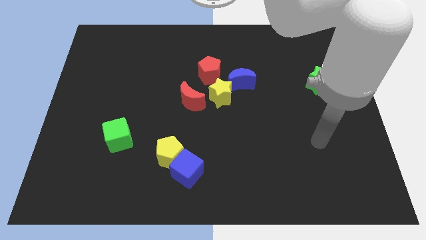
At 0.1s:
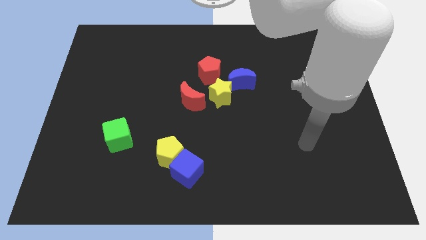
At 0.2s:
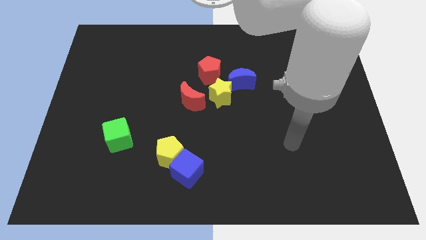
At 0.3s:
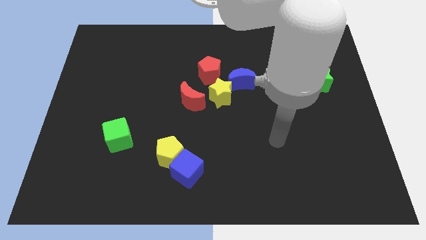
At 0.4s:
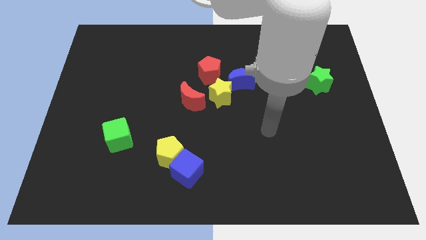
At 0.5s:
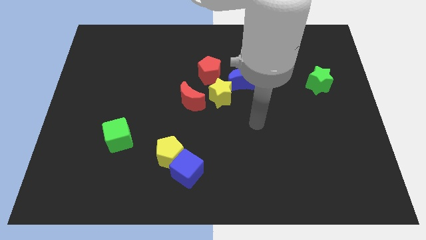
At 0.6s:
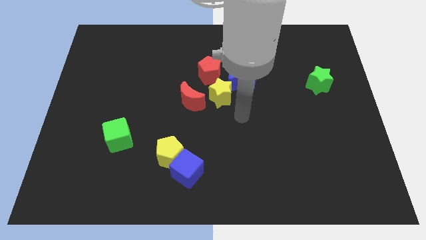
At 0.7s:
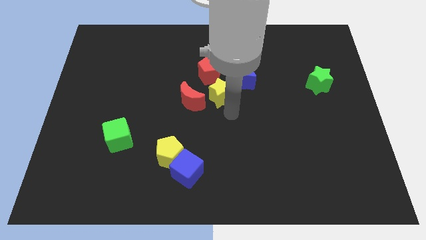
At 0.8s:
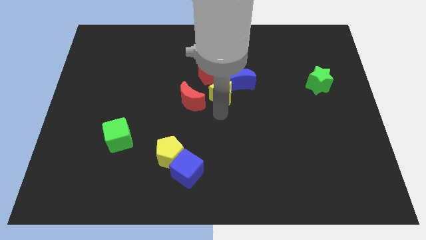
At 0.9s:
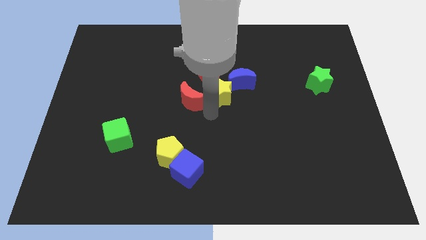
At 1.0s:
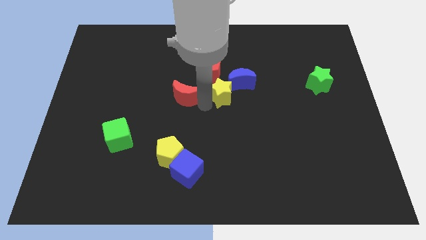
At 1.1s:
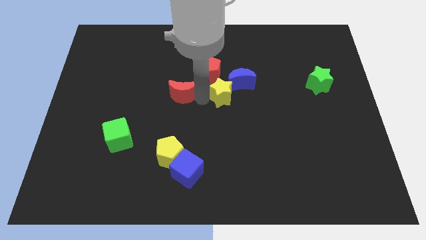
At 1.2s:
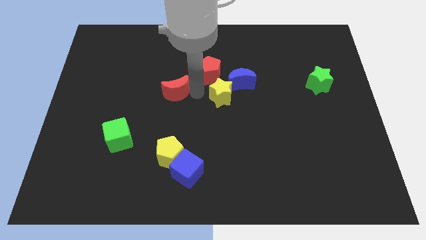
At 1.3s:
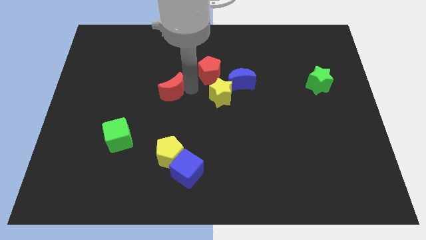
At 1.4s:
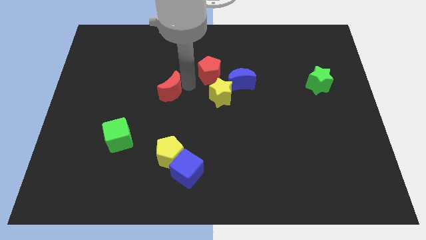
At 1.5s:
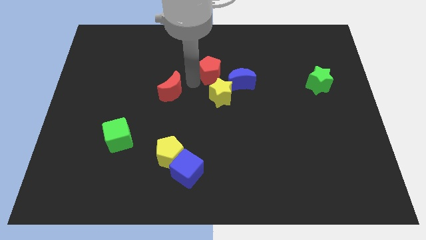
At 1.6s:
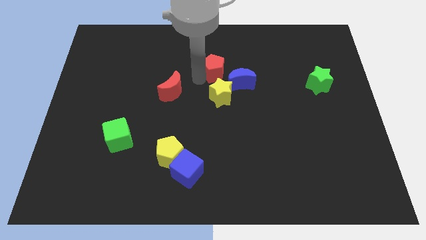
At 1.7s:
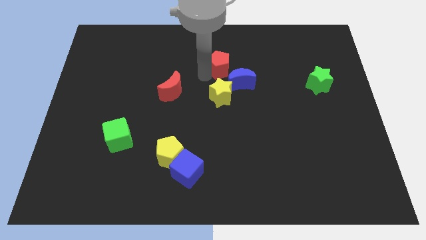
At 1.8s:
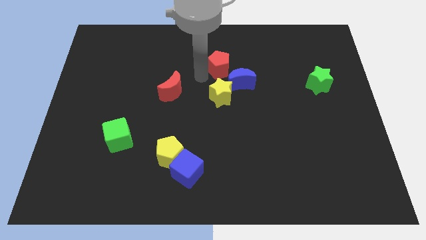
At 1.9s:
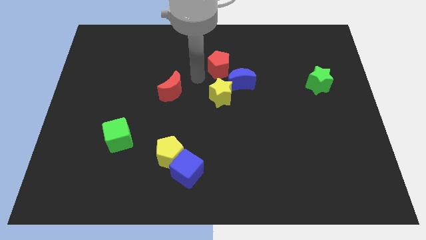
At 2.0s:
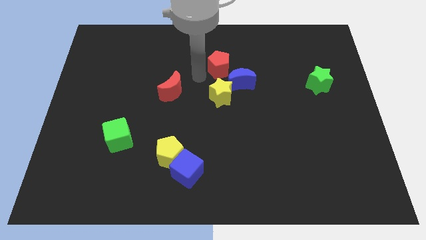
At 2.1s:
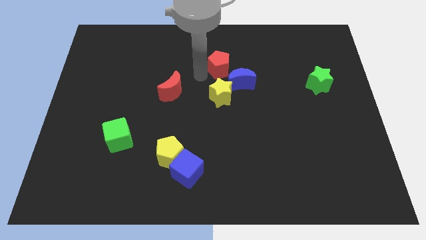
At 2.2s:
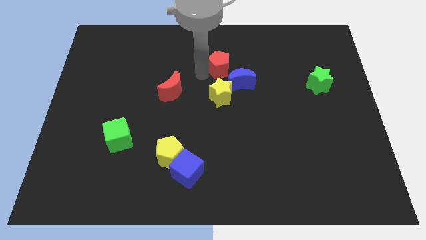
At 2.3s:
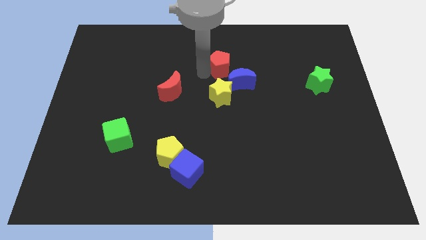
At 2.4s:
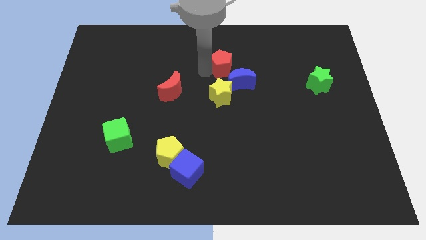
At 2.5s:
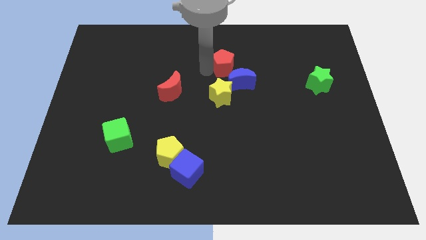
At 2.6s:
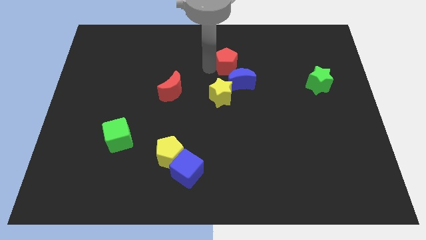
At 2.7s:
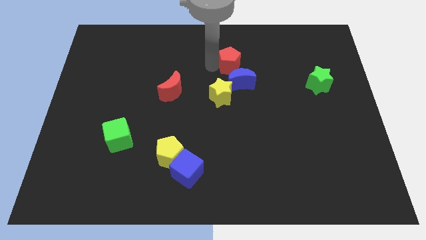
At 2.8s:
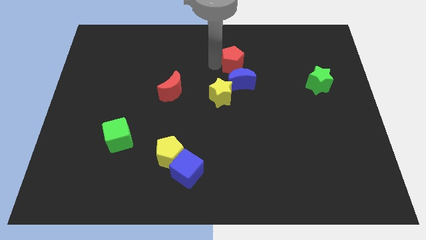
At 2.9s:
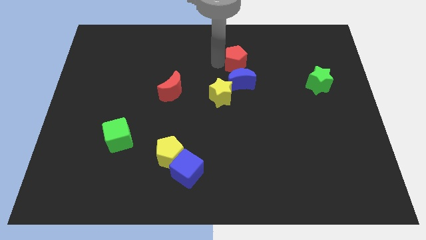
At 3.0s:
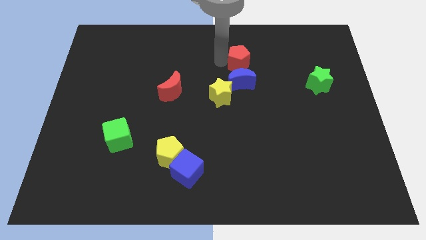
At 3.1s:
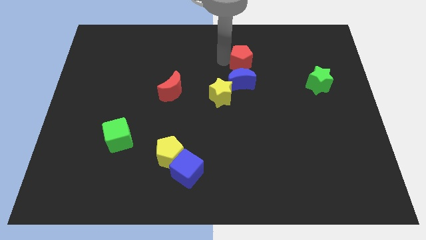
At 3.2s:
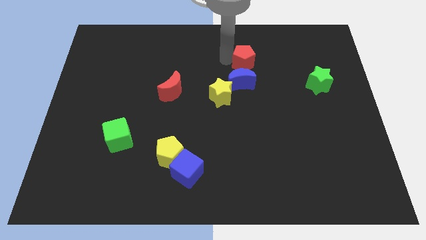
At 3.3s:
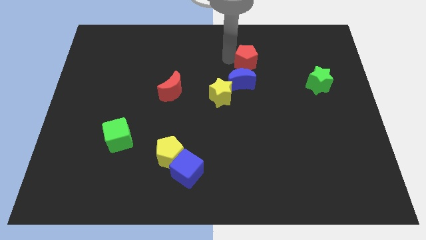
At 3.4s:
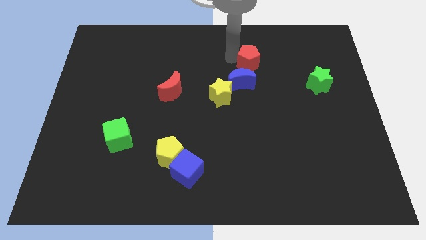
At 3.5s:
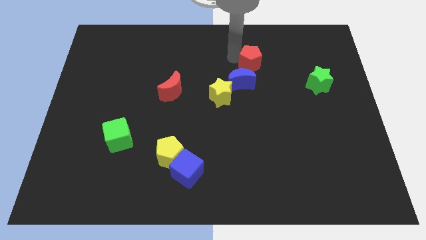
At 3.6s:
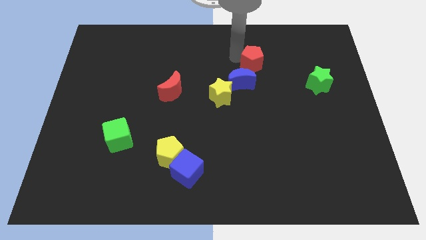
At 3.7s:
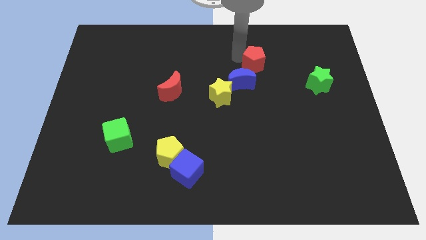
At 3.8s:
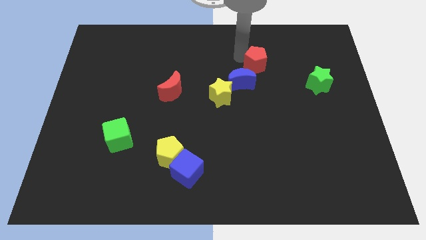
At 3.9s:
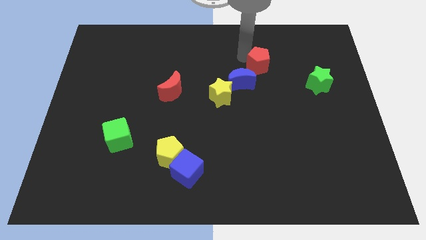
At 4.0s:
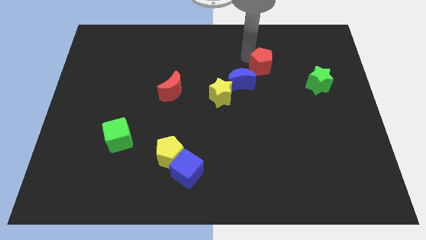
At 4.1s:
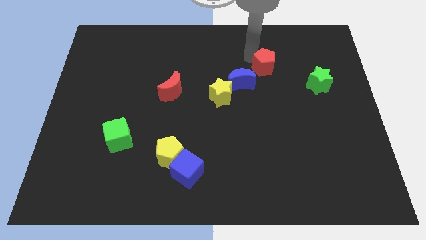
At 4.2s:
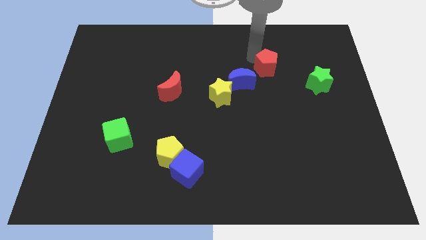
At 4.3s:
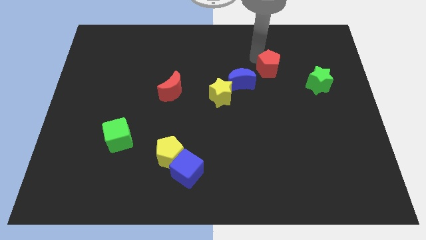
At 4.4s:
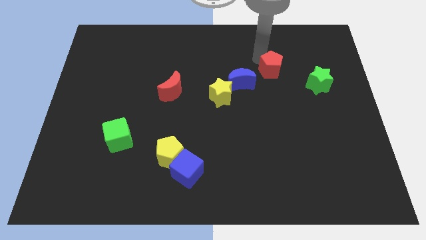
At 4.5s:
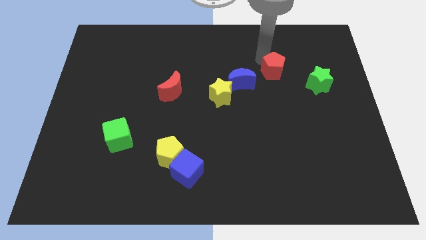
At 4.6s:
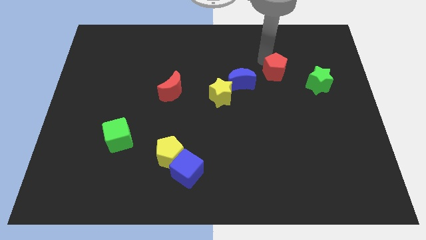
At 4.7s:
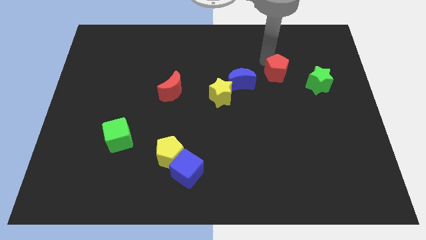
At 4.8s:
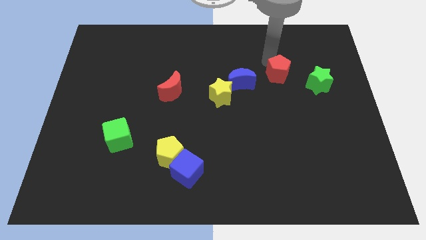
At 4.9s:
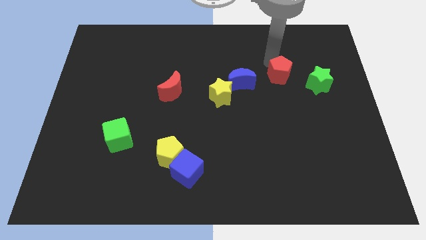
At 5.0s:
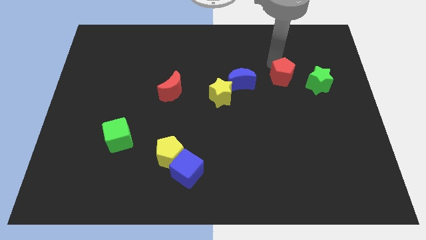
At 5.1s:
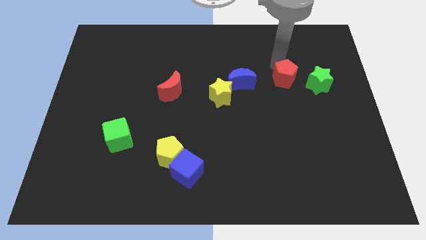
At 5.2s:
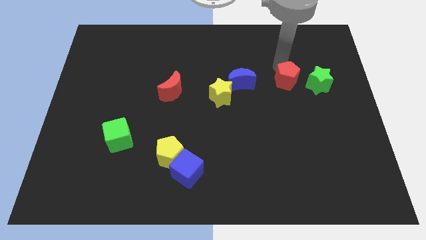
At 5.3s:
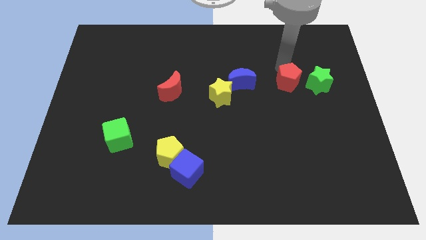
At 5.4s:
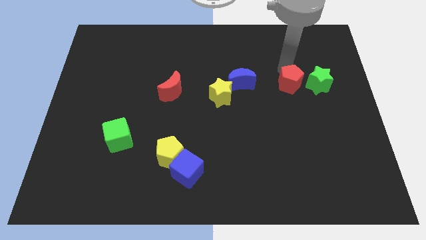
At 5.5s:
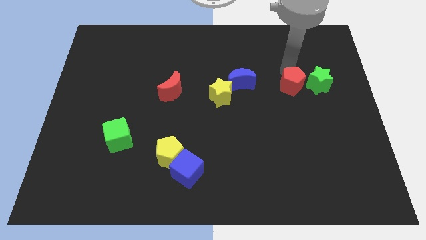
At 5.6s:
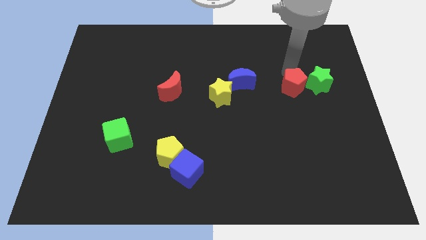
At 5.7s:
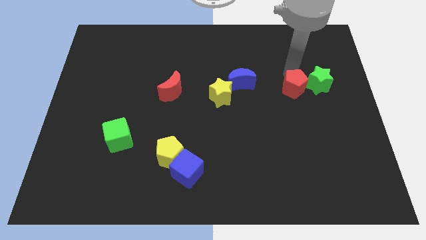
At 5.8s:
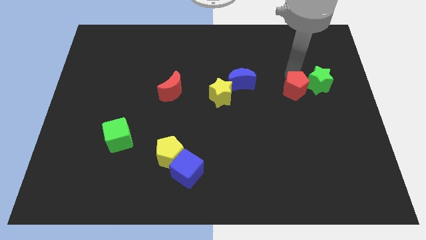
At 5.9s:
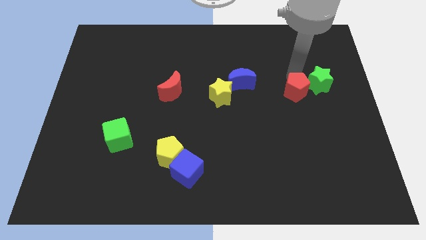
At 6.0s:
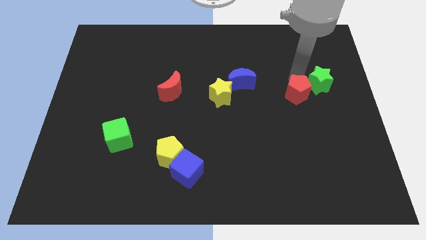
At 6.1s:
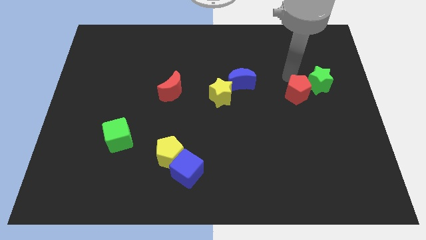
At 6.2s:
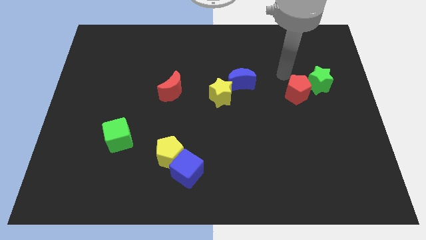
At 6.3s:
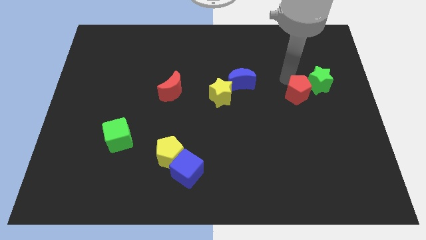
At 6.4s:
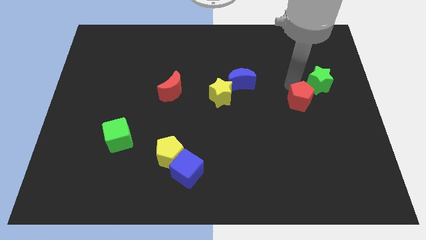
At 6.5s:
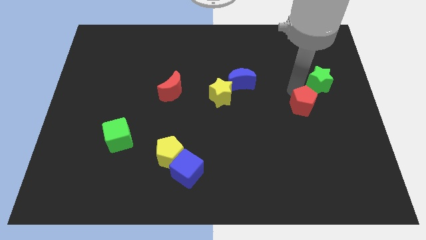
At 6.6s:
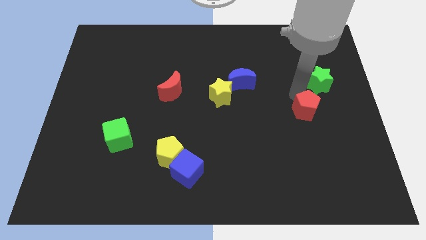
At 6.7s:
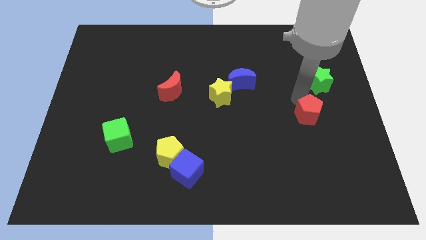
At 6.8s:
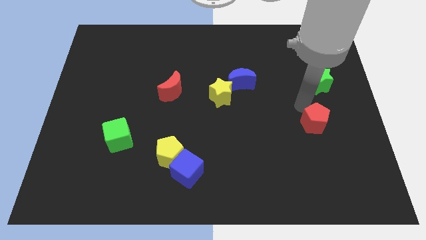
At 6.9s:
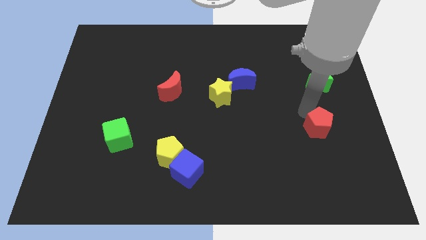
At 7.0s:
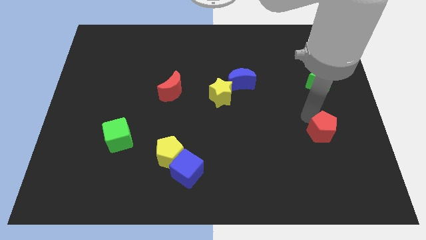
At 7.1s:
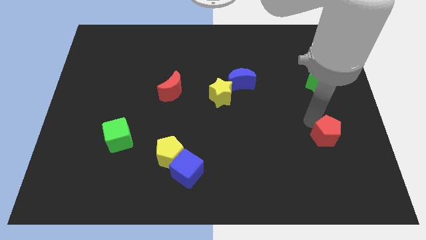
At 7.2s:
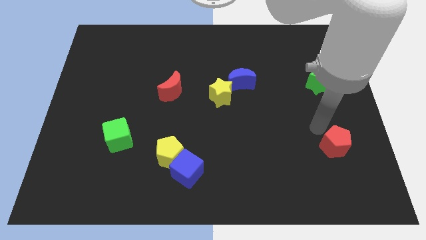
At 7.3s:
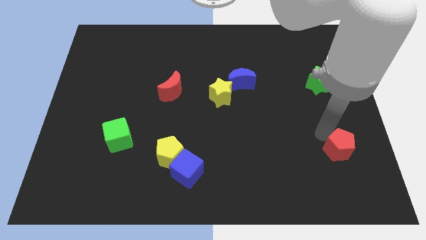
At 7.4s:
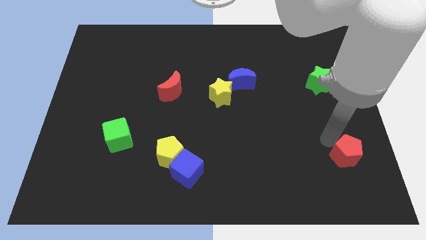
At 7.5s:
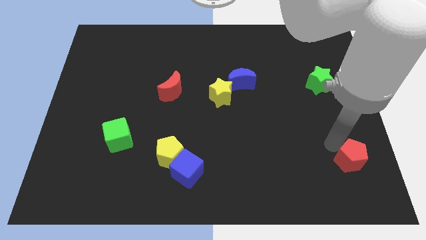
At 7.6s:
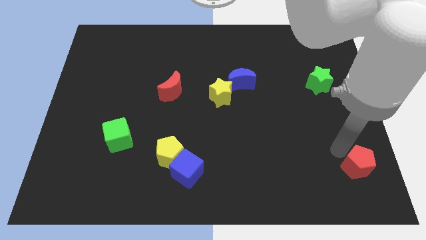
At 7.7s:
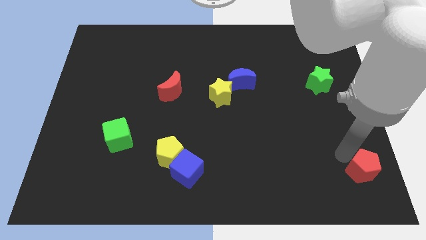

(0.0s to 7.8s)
slide the red pentagon to the bottom right corner
